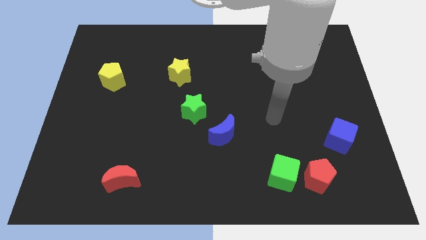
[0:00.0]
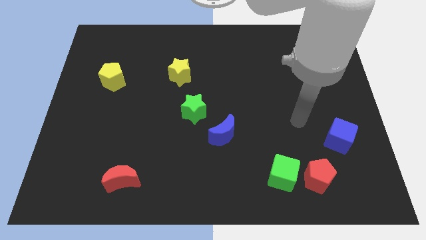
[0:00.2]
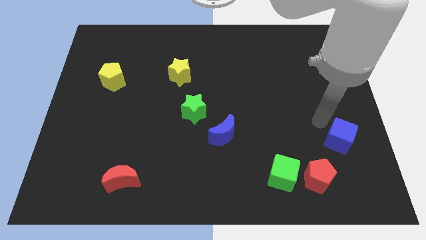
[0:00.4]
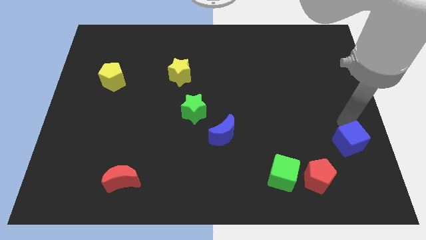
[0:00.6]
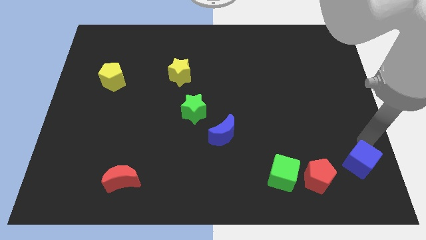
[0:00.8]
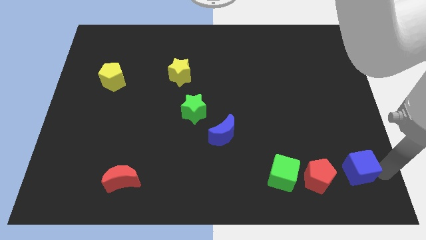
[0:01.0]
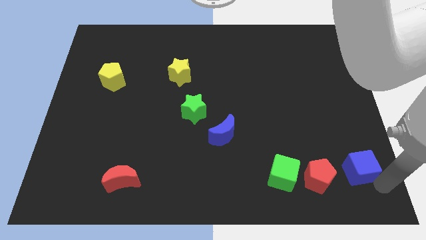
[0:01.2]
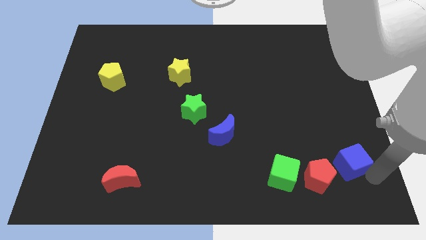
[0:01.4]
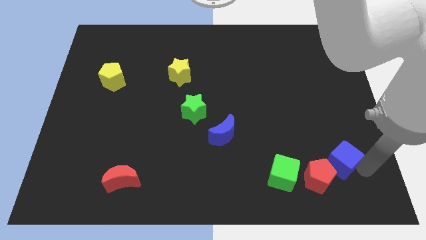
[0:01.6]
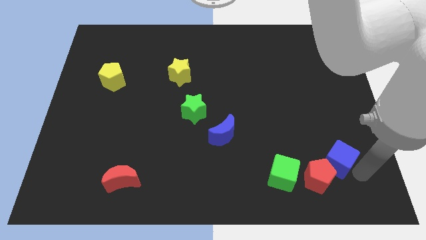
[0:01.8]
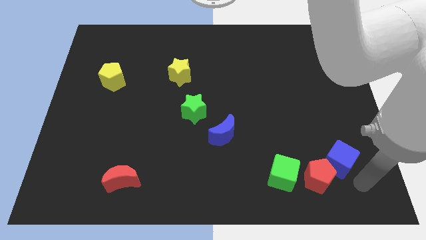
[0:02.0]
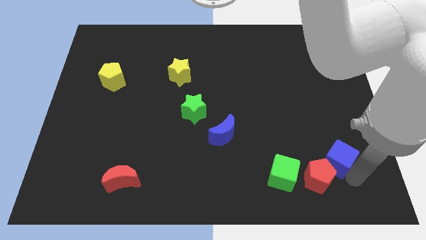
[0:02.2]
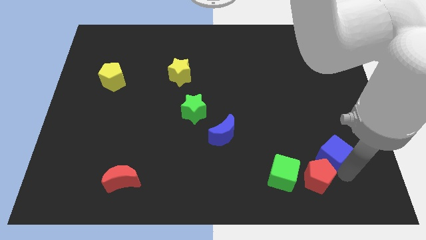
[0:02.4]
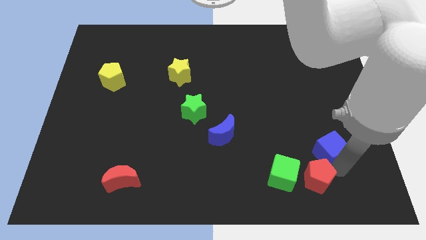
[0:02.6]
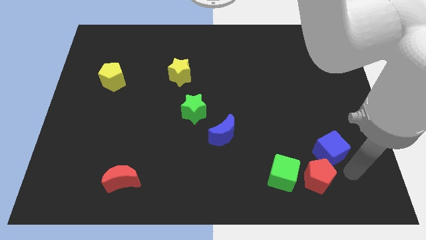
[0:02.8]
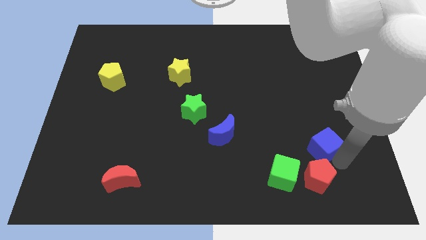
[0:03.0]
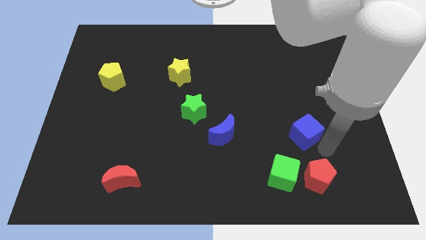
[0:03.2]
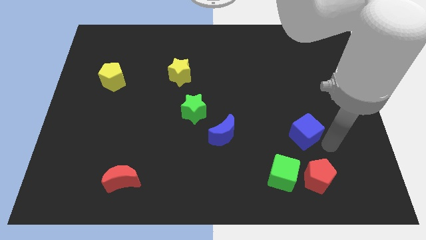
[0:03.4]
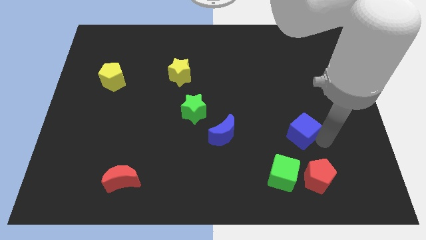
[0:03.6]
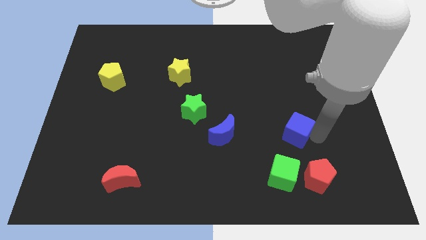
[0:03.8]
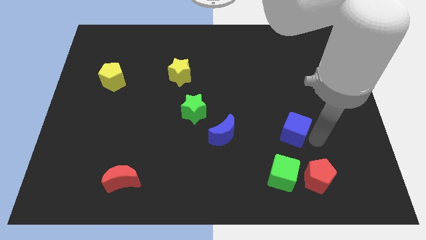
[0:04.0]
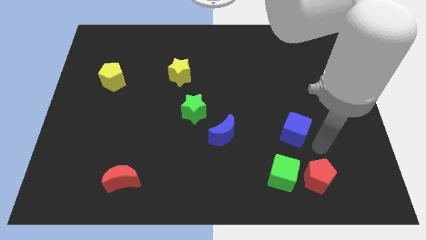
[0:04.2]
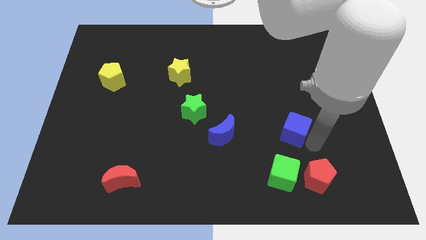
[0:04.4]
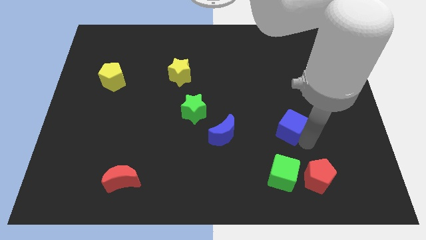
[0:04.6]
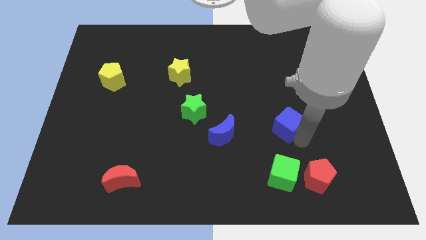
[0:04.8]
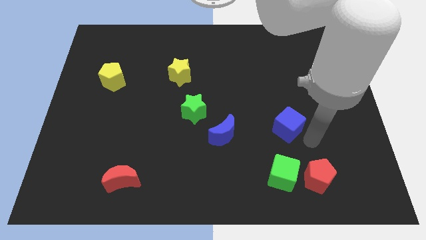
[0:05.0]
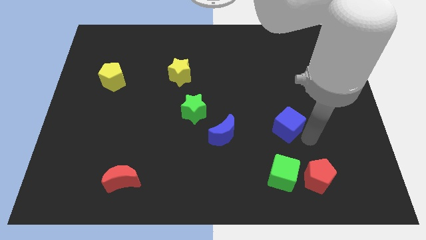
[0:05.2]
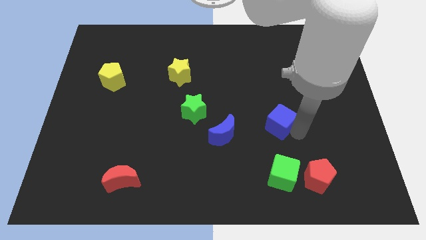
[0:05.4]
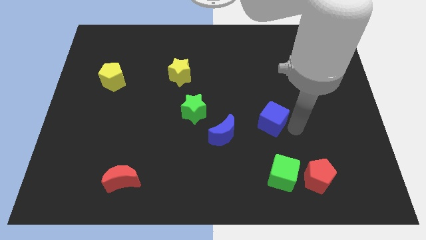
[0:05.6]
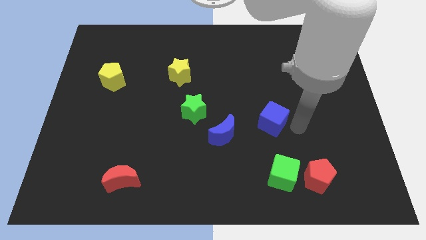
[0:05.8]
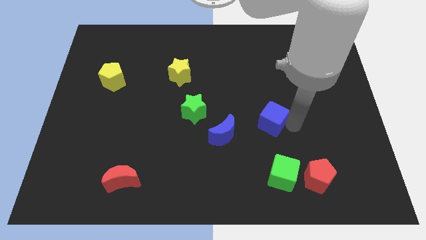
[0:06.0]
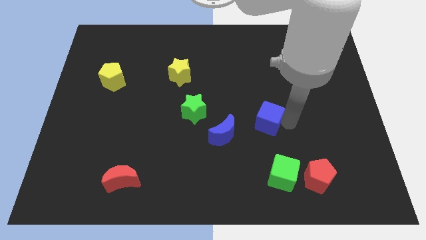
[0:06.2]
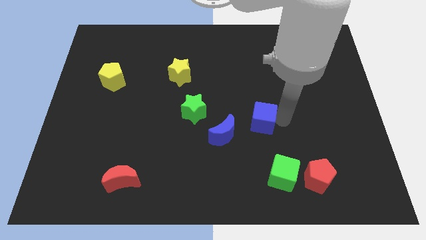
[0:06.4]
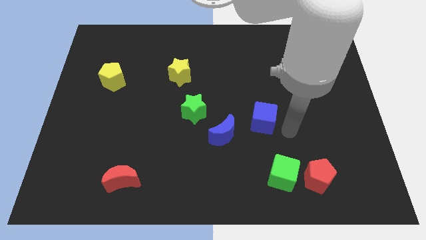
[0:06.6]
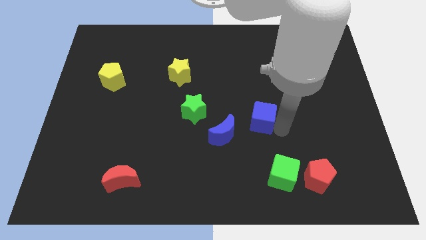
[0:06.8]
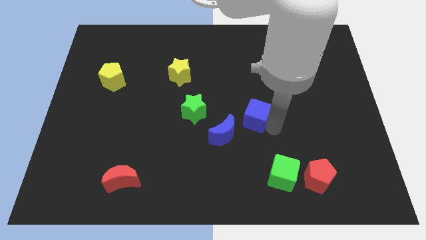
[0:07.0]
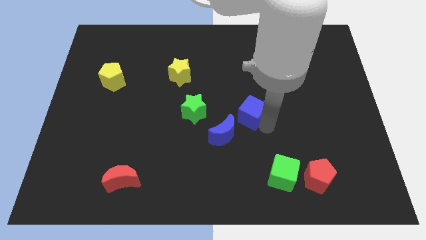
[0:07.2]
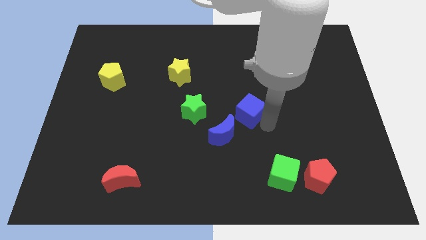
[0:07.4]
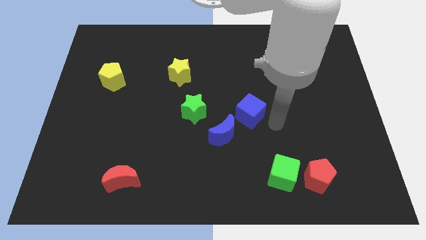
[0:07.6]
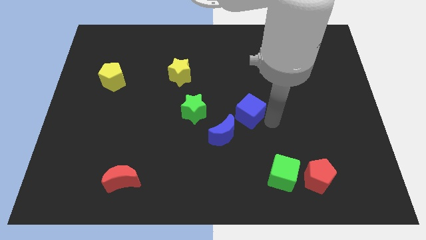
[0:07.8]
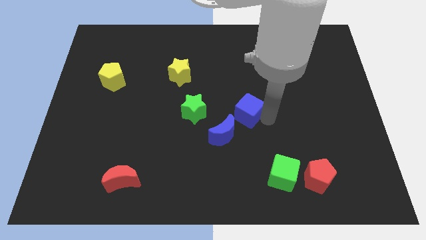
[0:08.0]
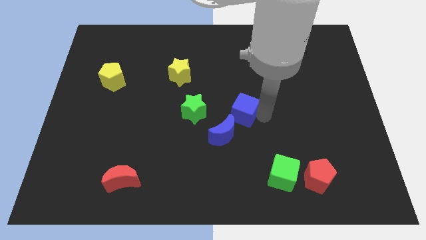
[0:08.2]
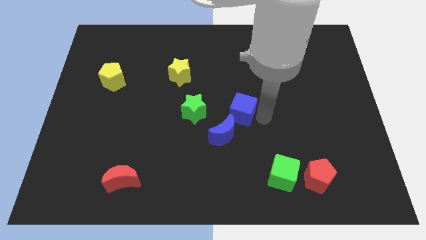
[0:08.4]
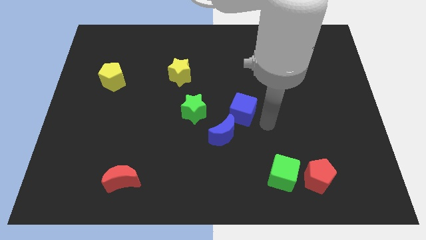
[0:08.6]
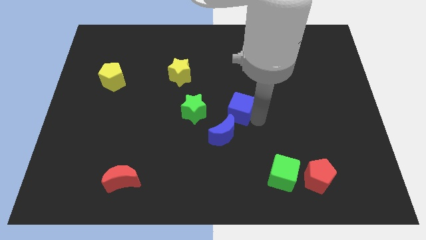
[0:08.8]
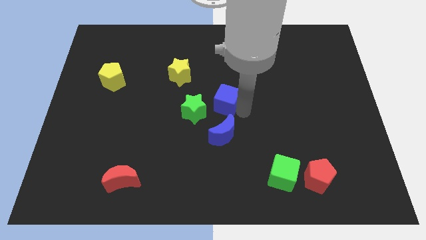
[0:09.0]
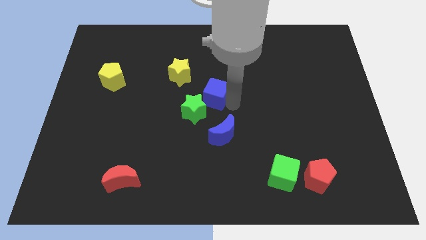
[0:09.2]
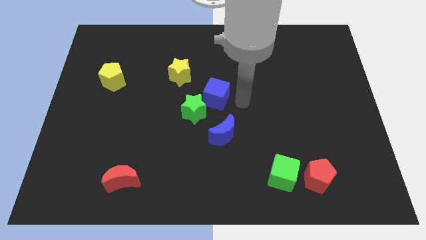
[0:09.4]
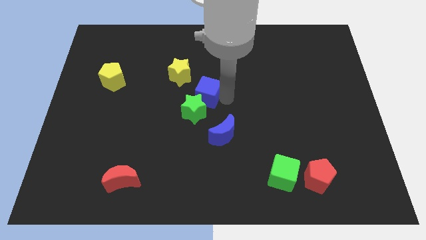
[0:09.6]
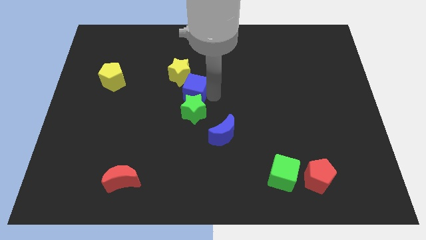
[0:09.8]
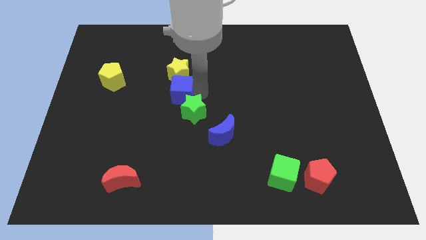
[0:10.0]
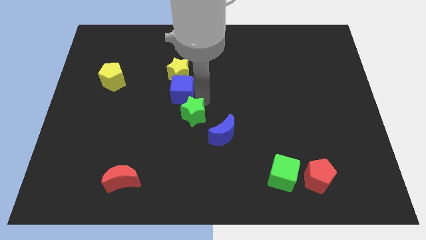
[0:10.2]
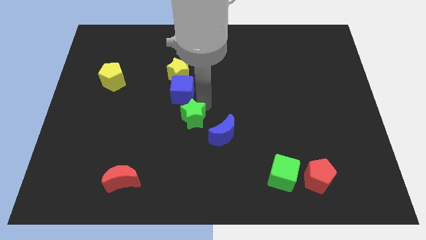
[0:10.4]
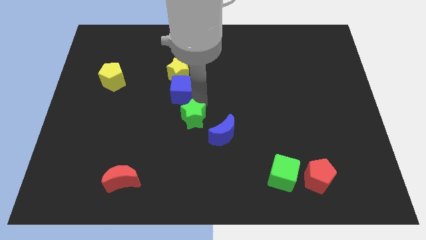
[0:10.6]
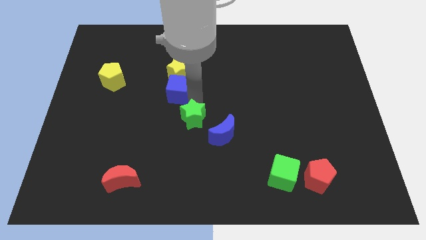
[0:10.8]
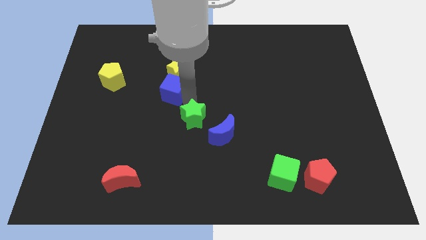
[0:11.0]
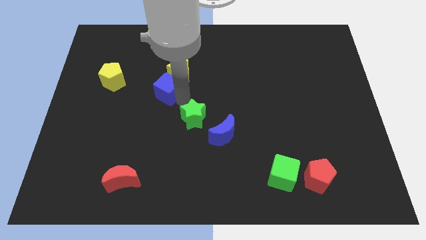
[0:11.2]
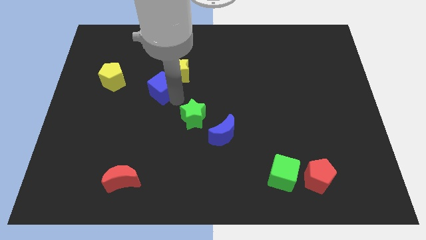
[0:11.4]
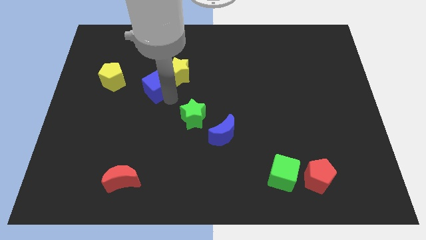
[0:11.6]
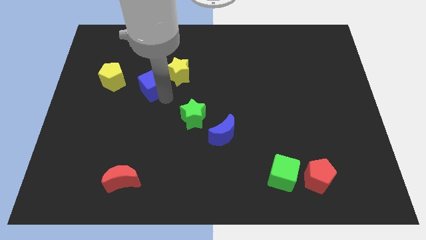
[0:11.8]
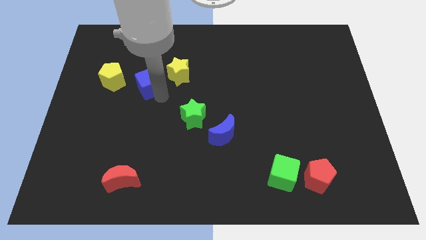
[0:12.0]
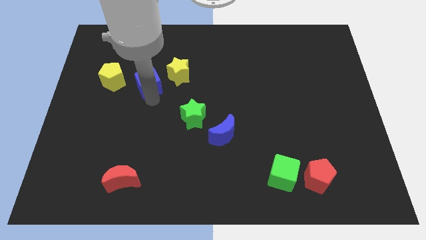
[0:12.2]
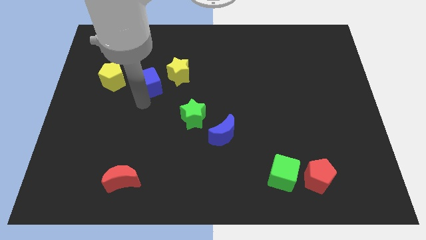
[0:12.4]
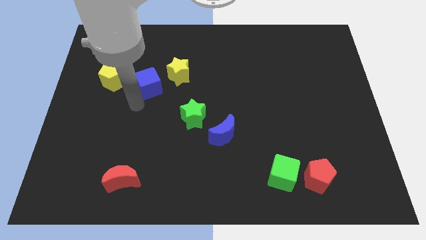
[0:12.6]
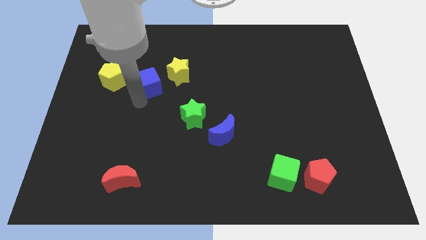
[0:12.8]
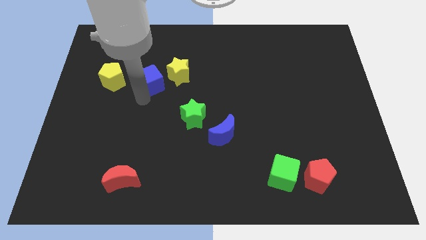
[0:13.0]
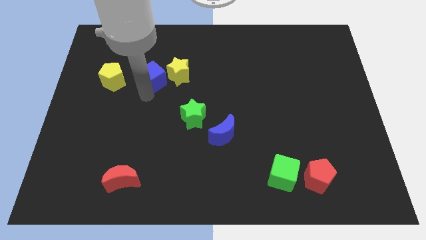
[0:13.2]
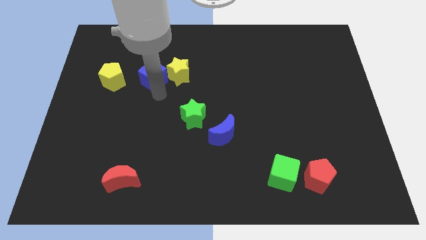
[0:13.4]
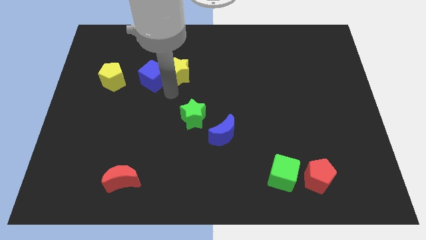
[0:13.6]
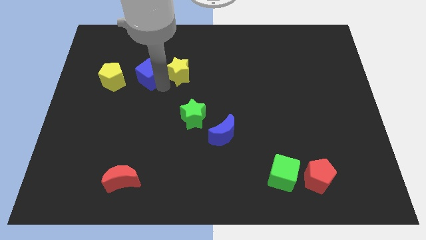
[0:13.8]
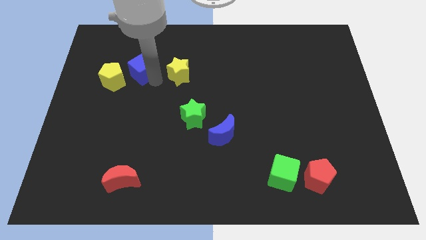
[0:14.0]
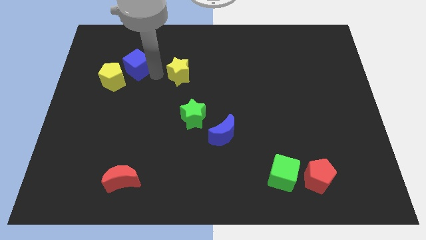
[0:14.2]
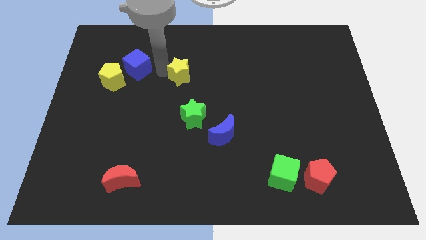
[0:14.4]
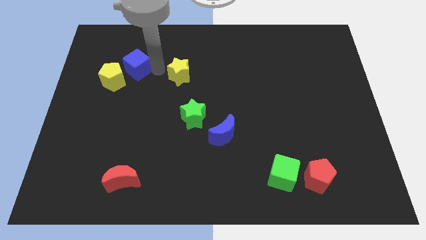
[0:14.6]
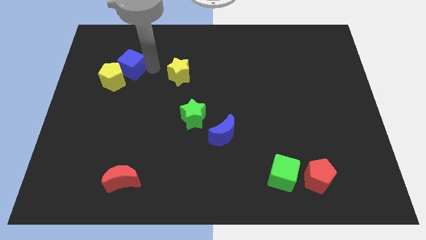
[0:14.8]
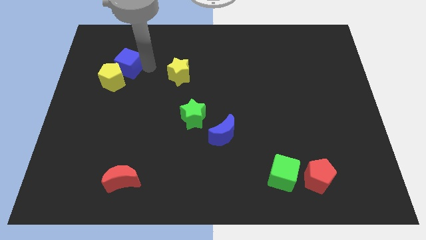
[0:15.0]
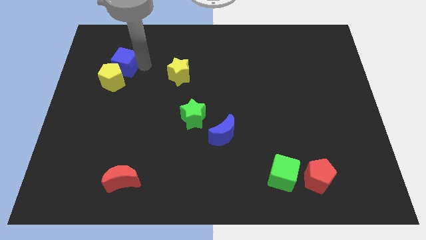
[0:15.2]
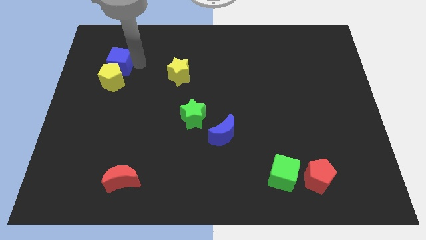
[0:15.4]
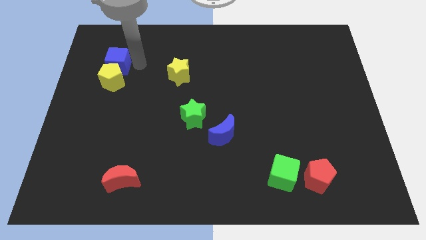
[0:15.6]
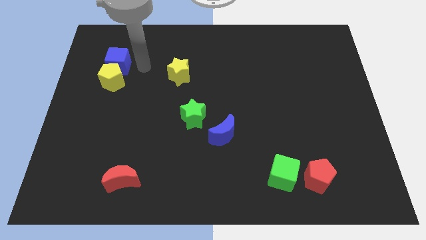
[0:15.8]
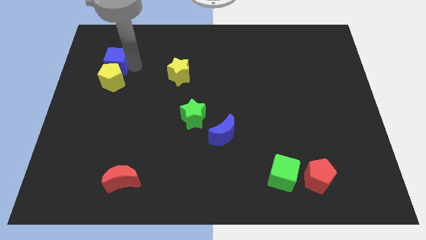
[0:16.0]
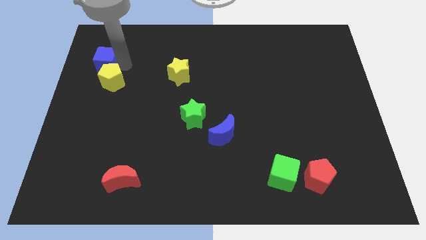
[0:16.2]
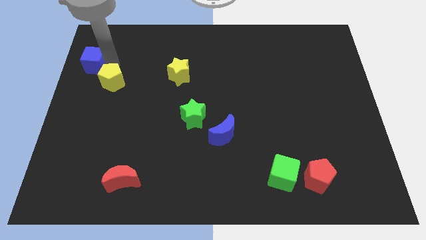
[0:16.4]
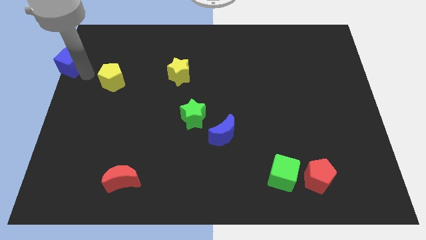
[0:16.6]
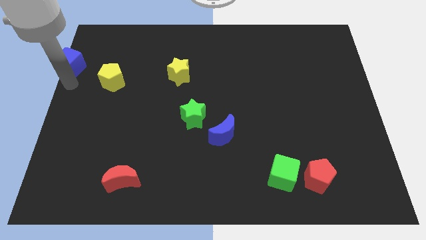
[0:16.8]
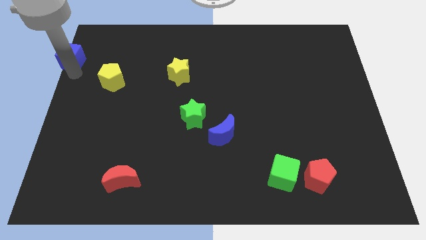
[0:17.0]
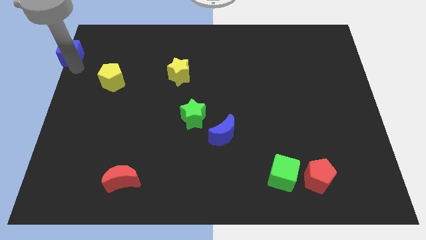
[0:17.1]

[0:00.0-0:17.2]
slide the blue cube to the upper left corner
